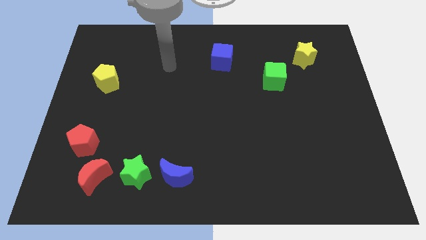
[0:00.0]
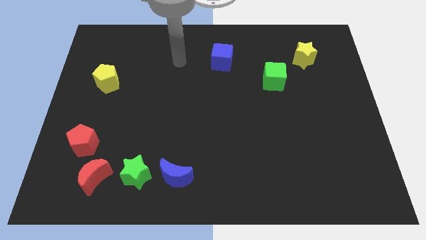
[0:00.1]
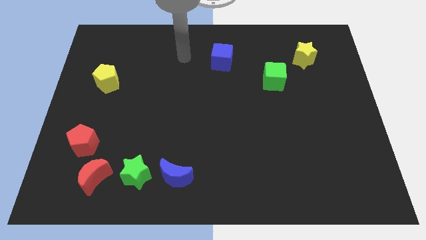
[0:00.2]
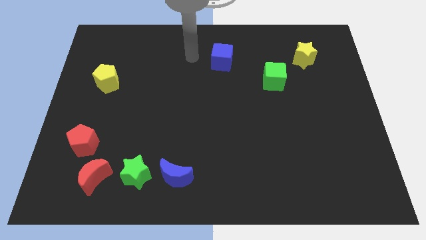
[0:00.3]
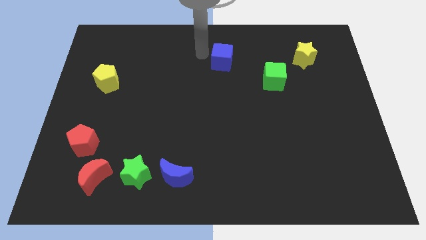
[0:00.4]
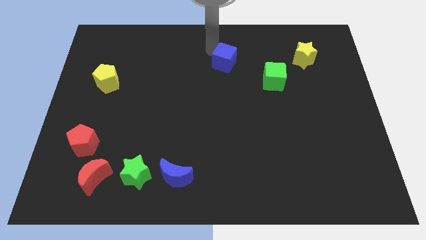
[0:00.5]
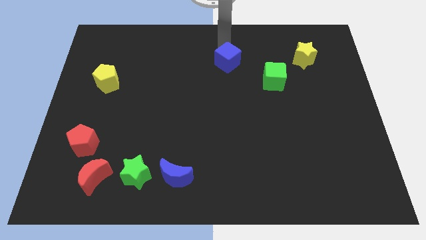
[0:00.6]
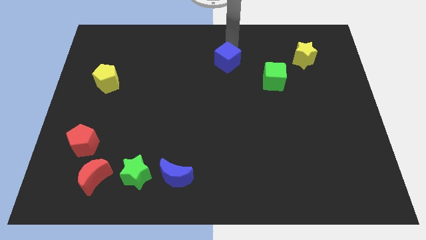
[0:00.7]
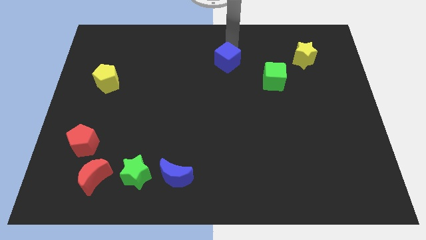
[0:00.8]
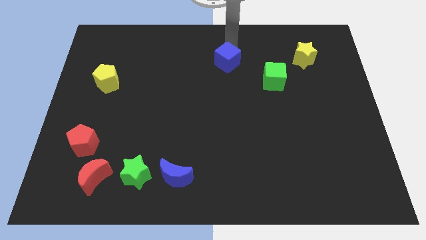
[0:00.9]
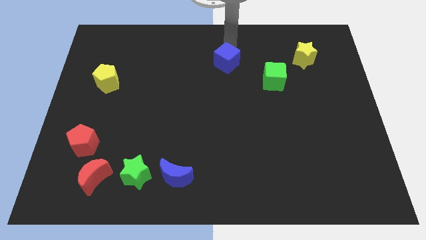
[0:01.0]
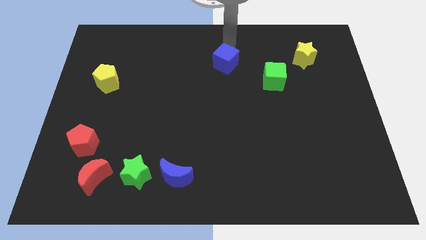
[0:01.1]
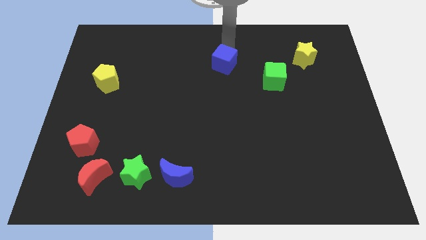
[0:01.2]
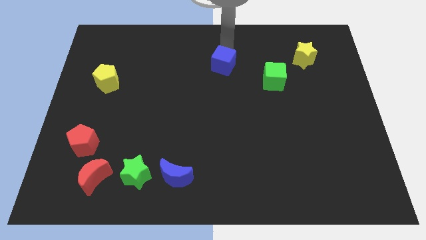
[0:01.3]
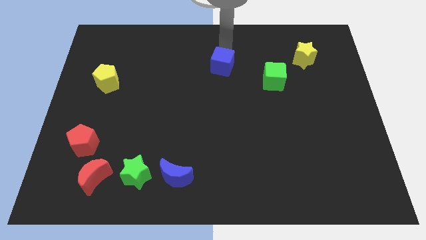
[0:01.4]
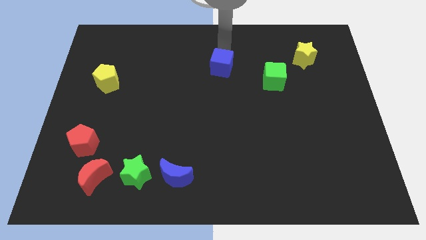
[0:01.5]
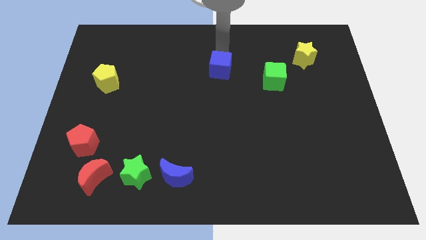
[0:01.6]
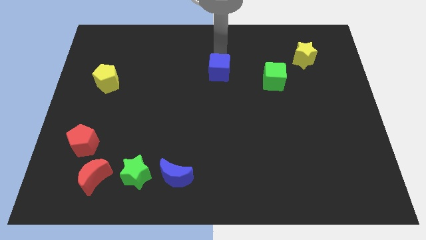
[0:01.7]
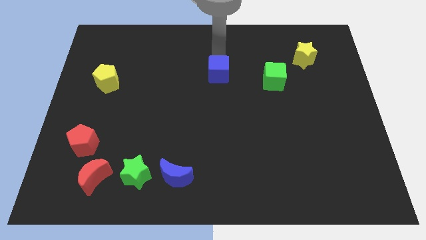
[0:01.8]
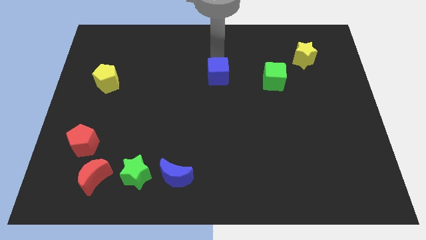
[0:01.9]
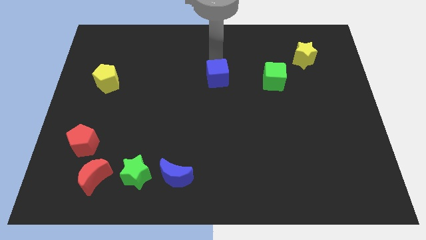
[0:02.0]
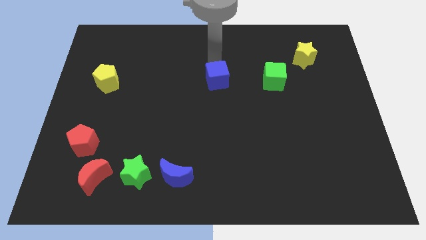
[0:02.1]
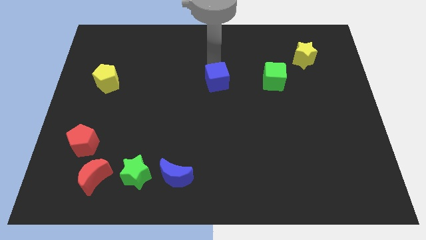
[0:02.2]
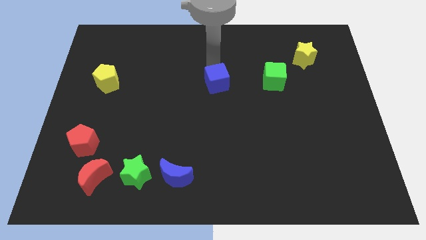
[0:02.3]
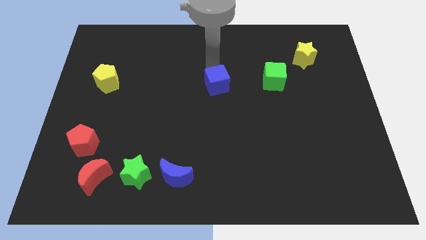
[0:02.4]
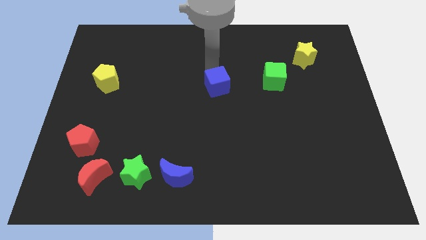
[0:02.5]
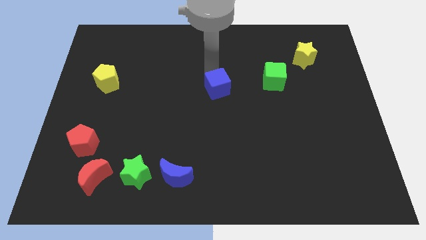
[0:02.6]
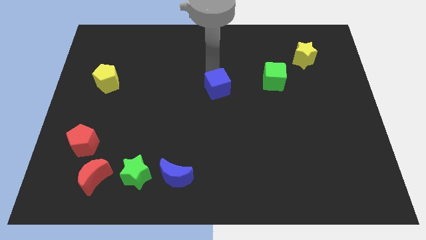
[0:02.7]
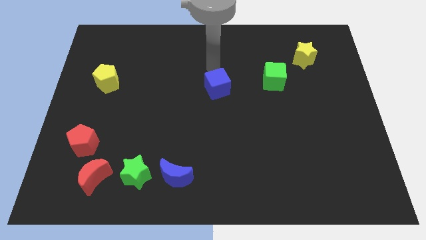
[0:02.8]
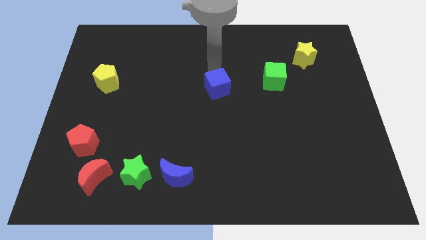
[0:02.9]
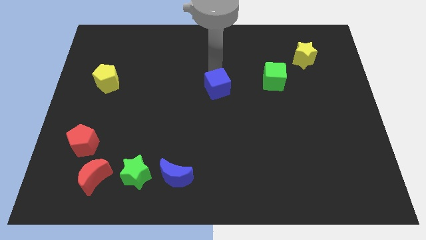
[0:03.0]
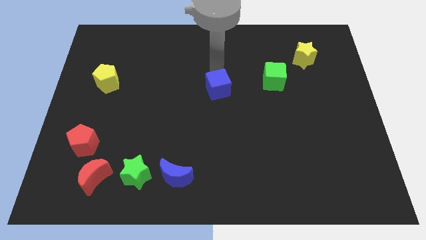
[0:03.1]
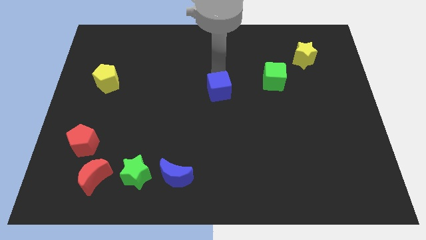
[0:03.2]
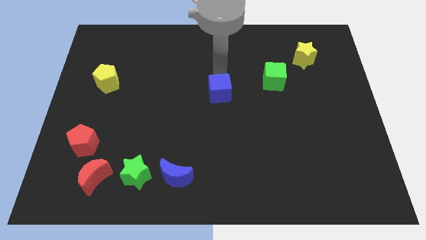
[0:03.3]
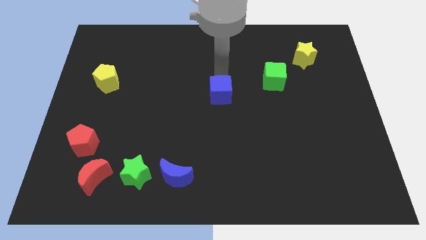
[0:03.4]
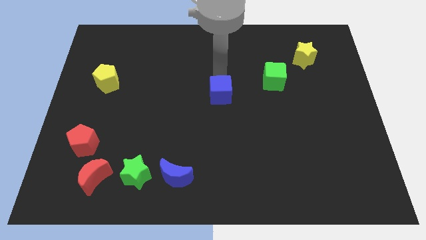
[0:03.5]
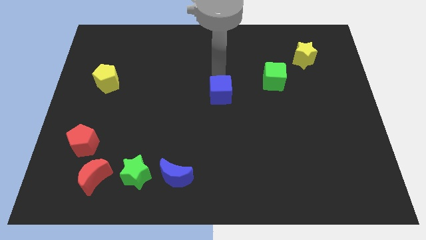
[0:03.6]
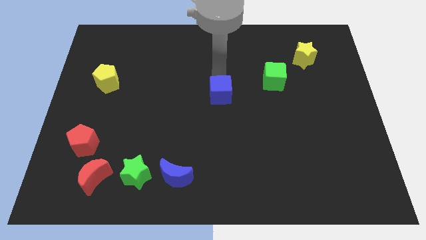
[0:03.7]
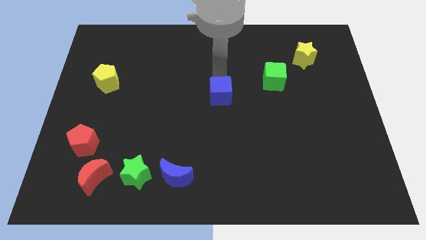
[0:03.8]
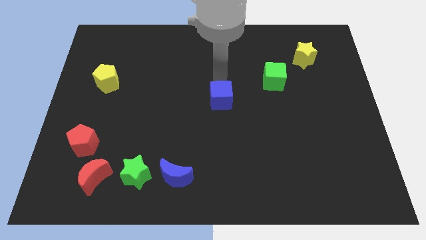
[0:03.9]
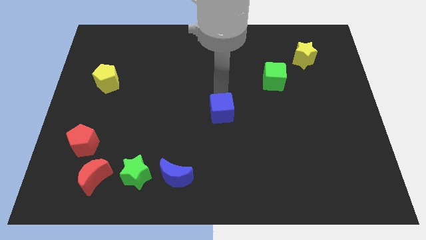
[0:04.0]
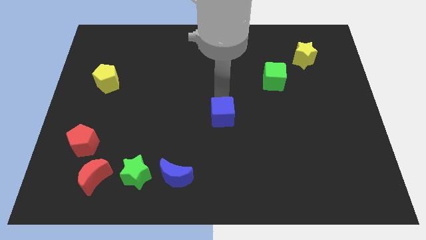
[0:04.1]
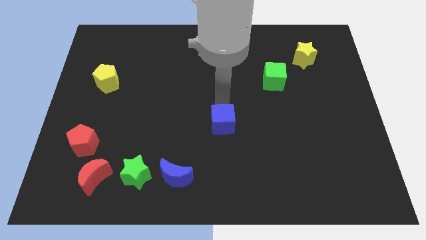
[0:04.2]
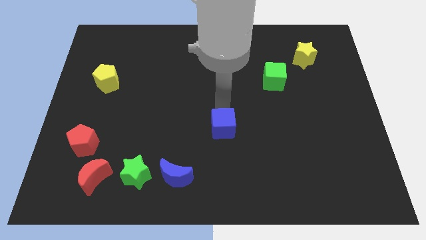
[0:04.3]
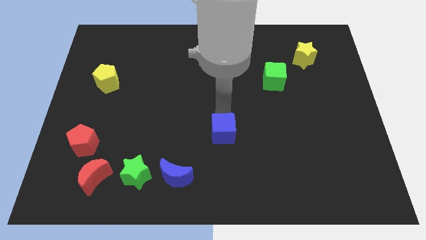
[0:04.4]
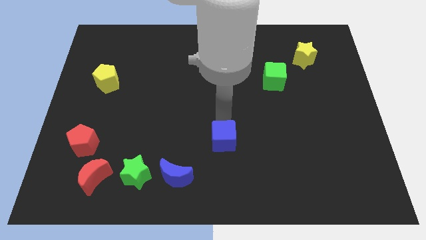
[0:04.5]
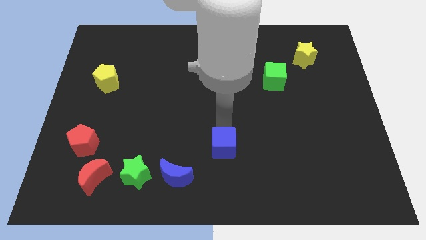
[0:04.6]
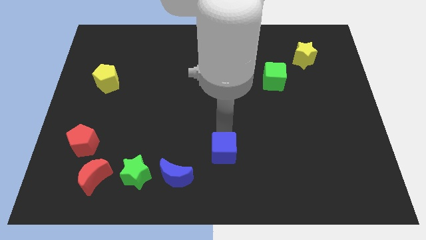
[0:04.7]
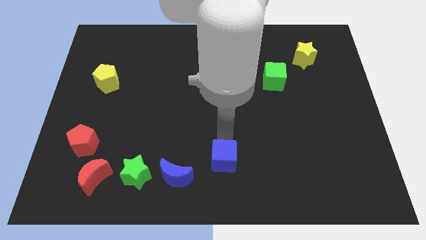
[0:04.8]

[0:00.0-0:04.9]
move the blue cube to the bottom

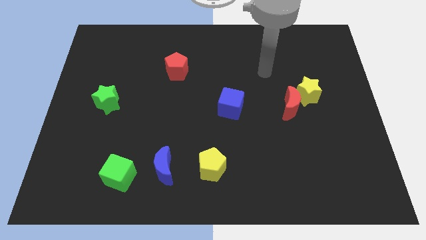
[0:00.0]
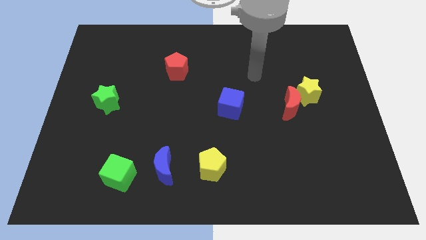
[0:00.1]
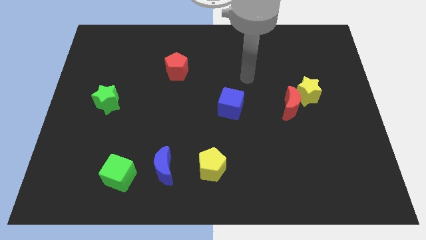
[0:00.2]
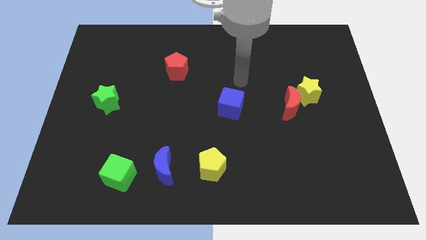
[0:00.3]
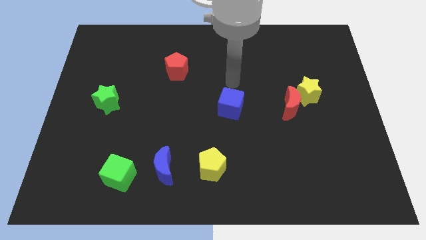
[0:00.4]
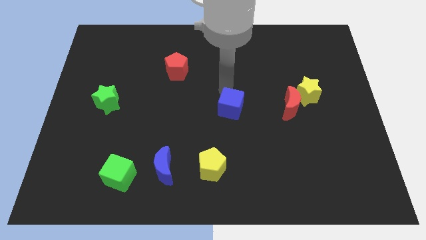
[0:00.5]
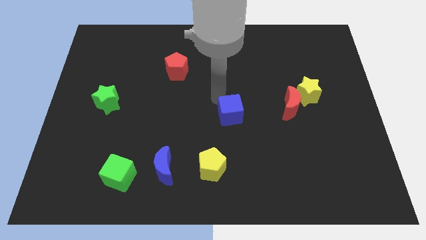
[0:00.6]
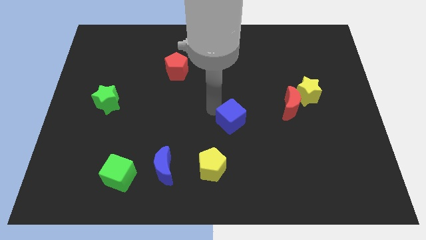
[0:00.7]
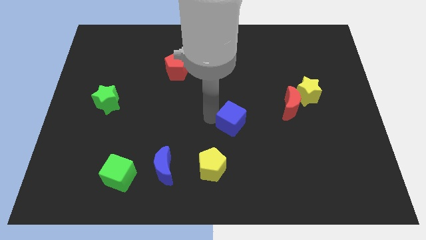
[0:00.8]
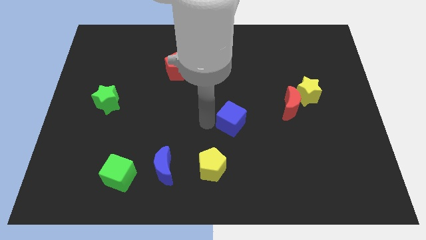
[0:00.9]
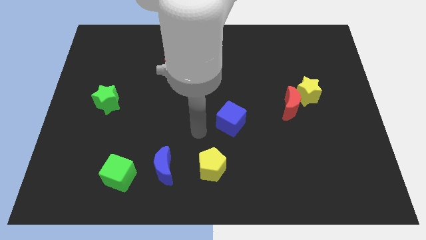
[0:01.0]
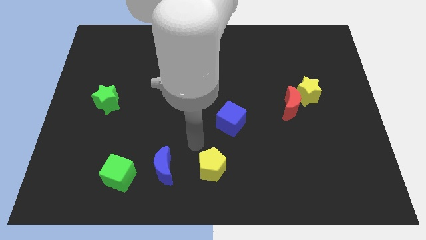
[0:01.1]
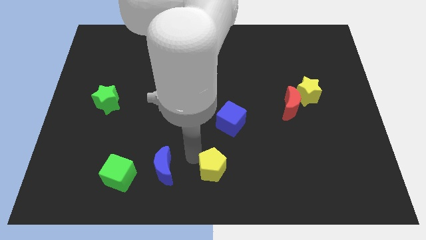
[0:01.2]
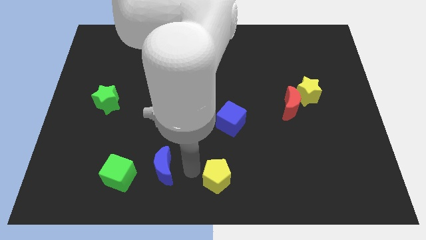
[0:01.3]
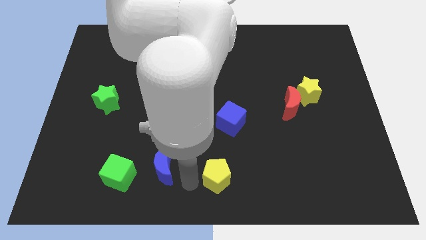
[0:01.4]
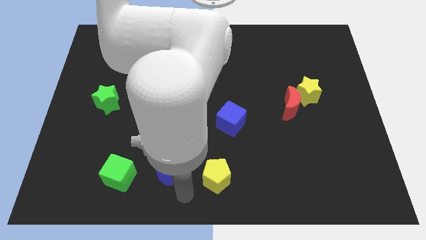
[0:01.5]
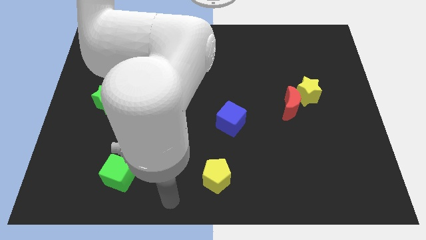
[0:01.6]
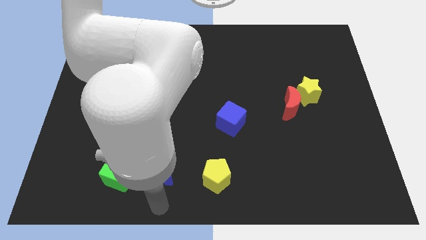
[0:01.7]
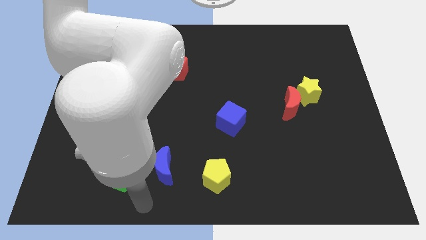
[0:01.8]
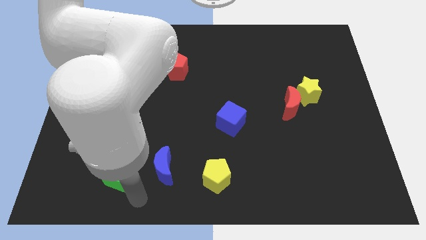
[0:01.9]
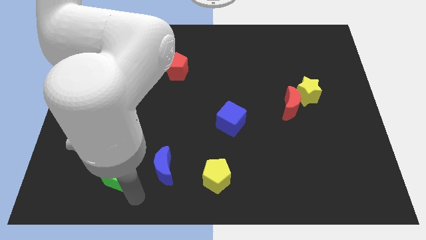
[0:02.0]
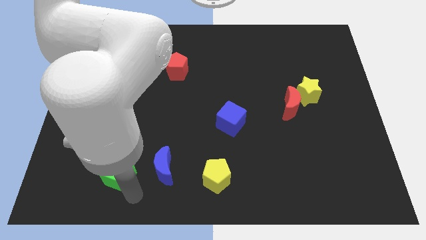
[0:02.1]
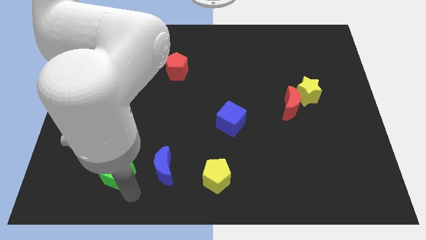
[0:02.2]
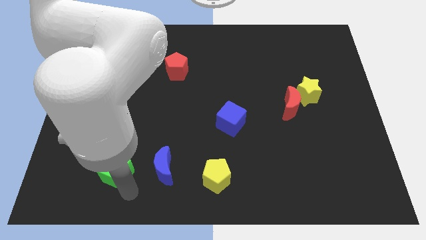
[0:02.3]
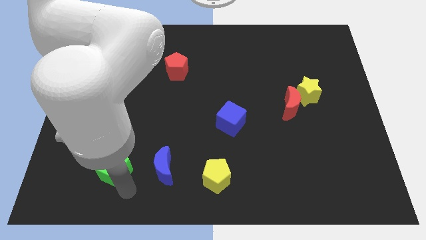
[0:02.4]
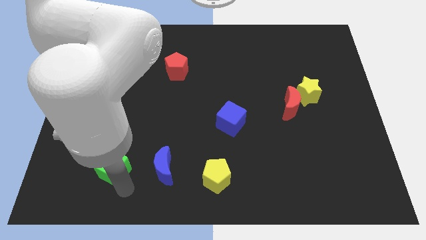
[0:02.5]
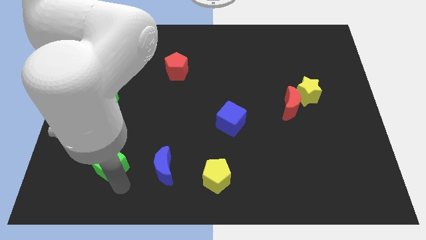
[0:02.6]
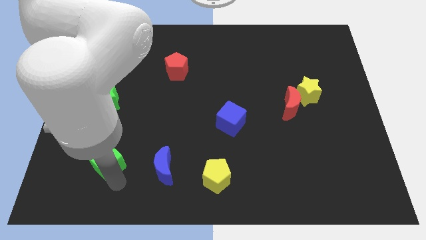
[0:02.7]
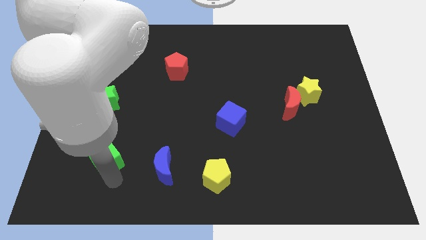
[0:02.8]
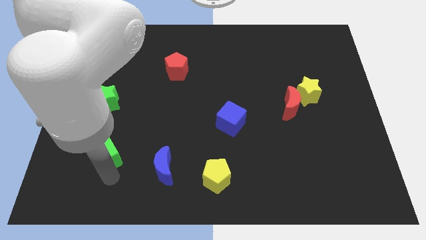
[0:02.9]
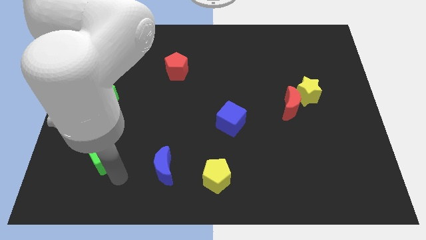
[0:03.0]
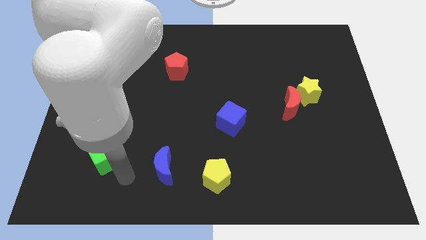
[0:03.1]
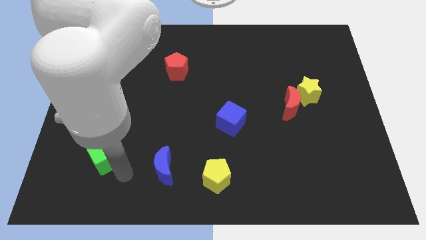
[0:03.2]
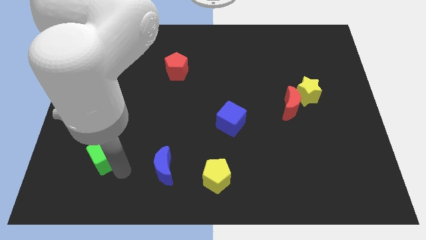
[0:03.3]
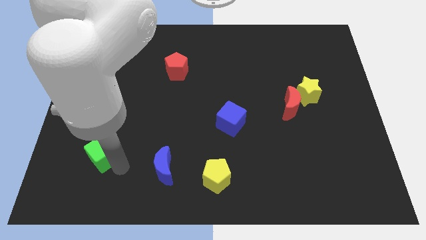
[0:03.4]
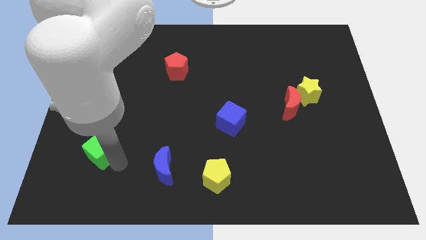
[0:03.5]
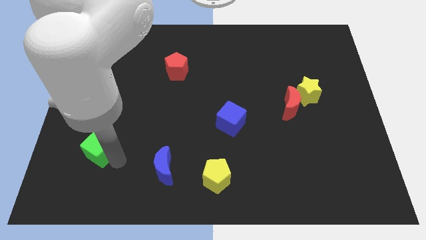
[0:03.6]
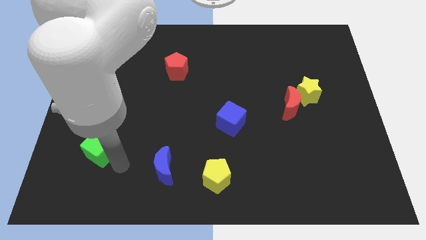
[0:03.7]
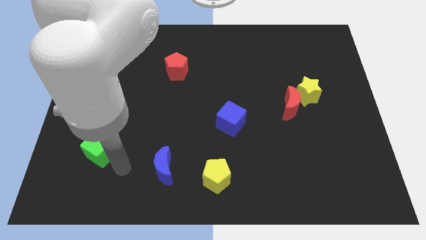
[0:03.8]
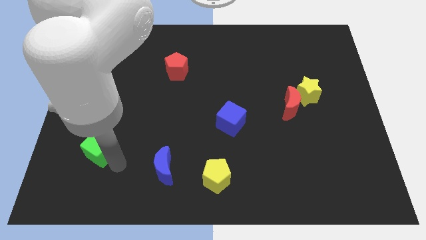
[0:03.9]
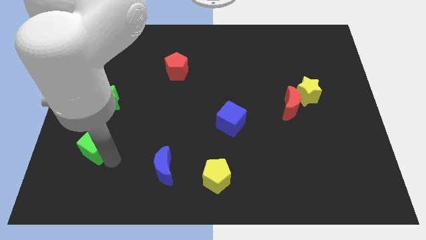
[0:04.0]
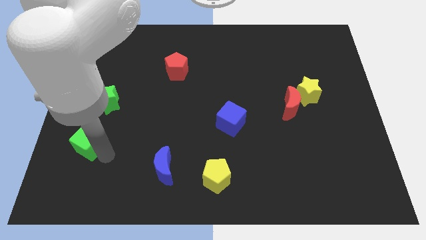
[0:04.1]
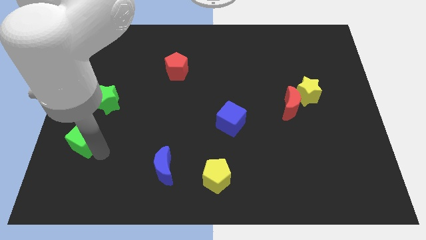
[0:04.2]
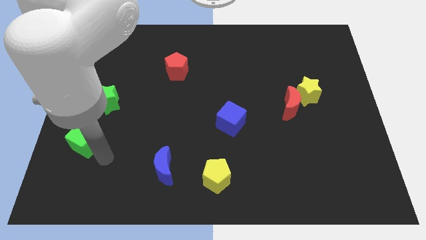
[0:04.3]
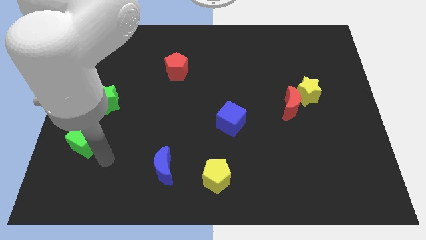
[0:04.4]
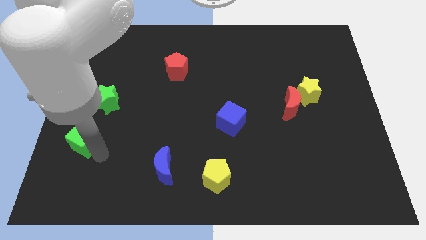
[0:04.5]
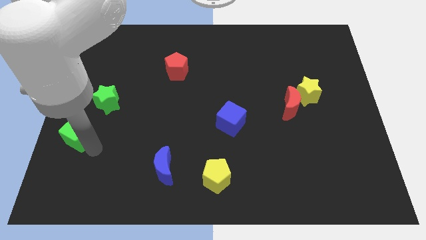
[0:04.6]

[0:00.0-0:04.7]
put the green cube to the left side
